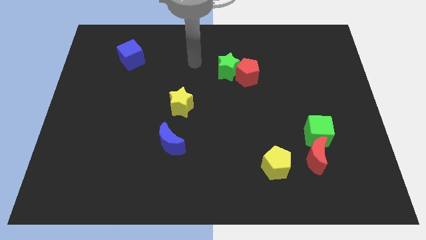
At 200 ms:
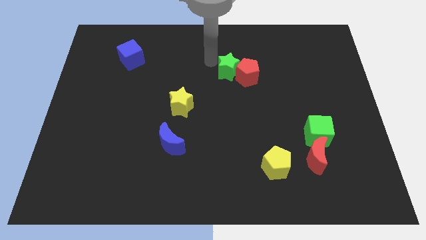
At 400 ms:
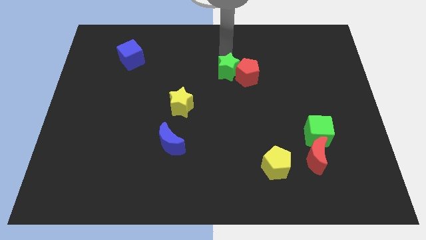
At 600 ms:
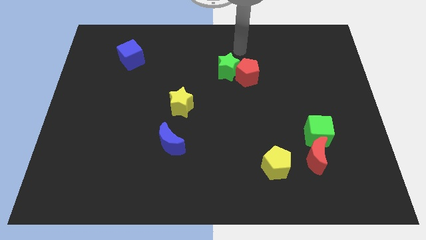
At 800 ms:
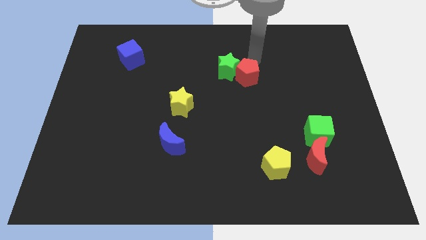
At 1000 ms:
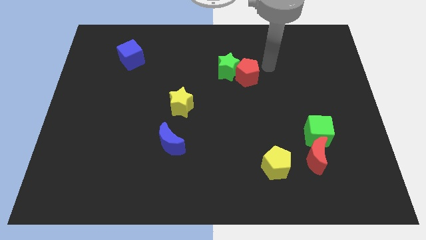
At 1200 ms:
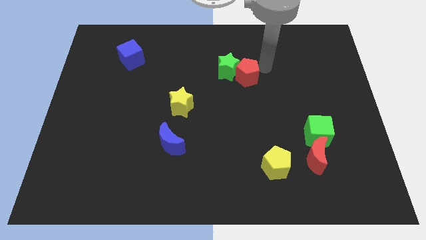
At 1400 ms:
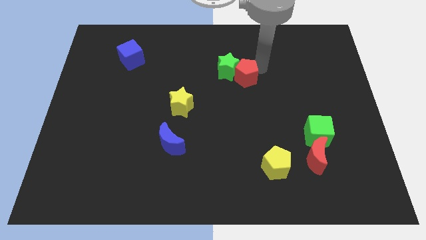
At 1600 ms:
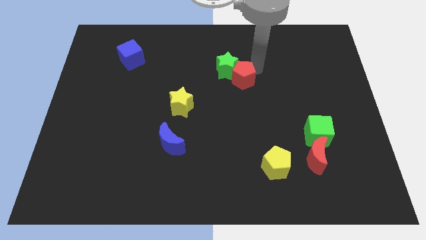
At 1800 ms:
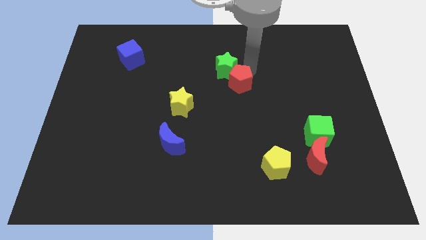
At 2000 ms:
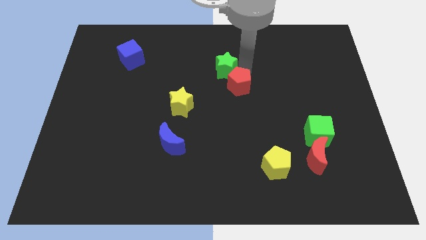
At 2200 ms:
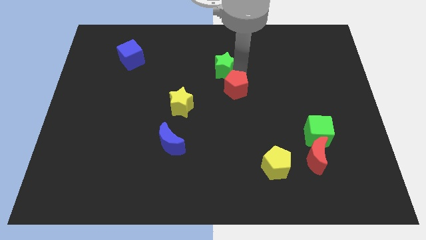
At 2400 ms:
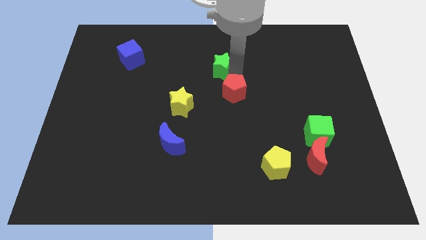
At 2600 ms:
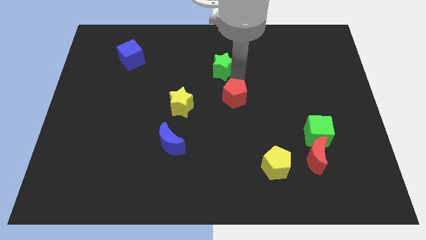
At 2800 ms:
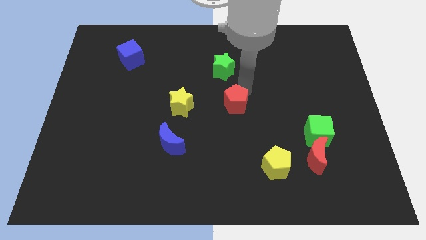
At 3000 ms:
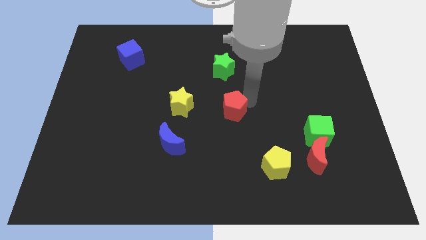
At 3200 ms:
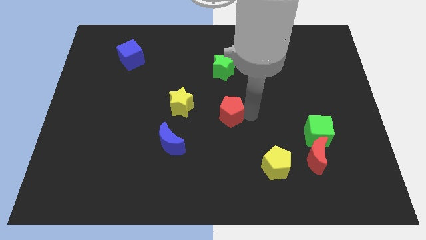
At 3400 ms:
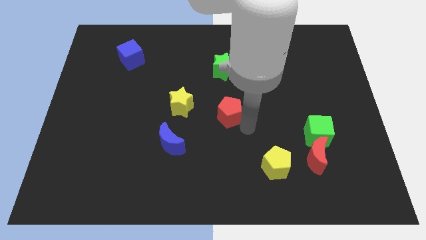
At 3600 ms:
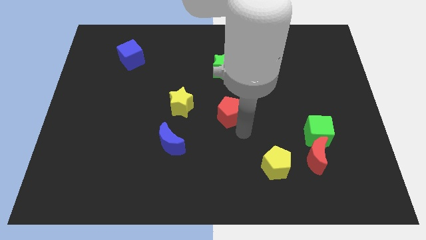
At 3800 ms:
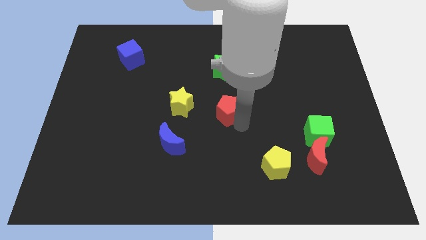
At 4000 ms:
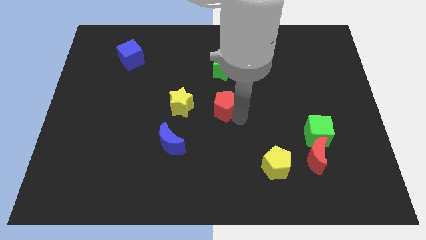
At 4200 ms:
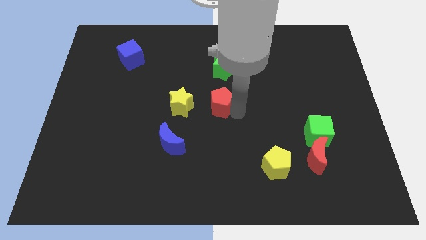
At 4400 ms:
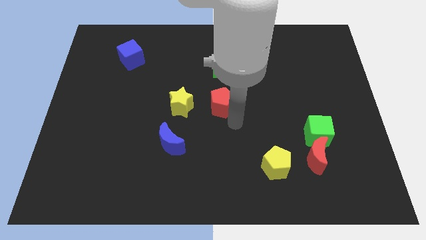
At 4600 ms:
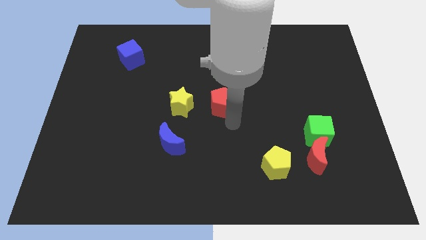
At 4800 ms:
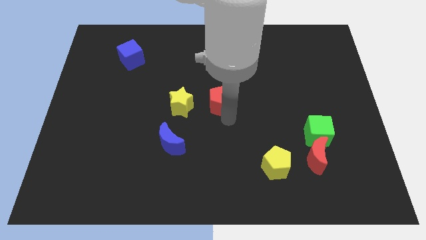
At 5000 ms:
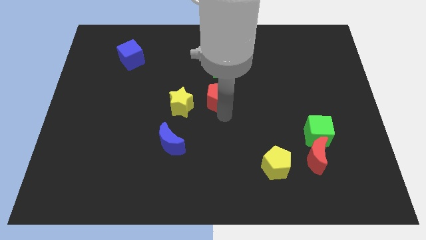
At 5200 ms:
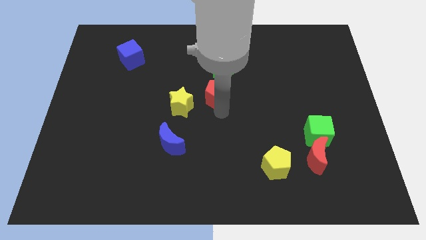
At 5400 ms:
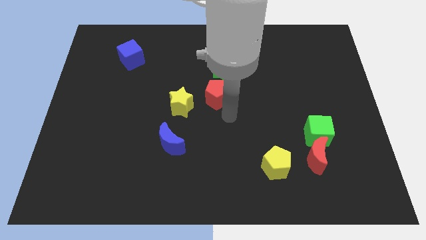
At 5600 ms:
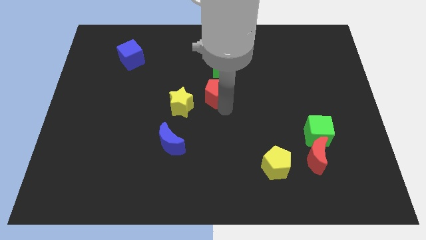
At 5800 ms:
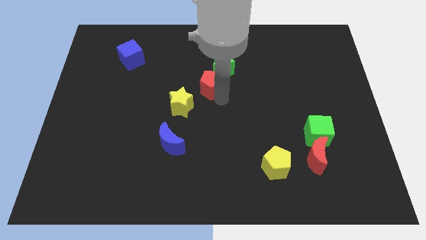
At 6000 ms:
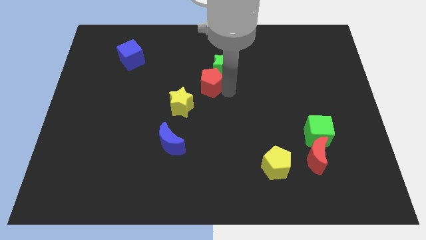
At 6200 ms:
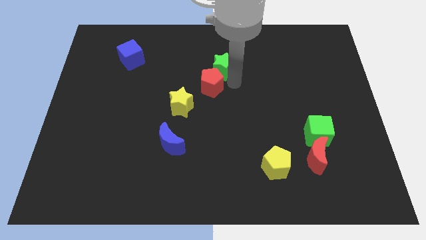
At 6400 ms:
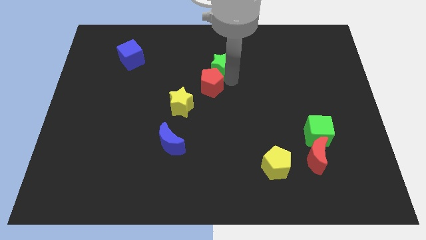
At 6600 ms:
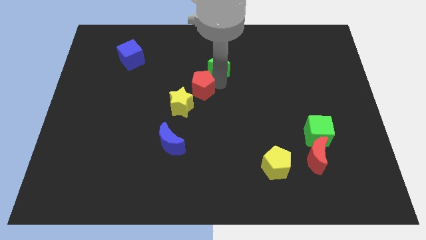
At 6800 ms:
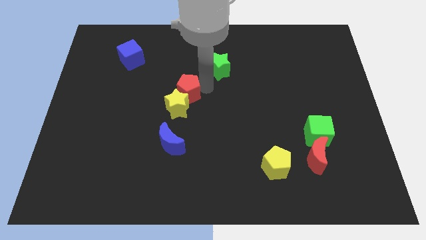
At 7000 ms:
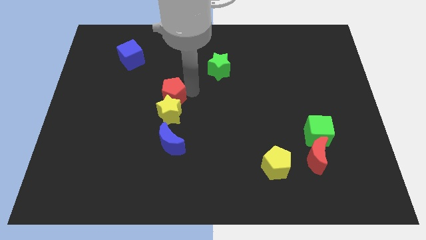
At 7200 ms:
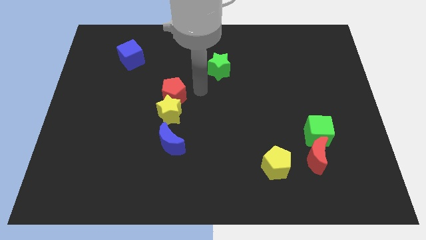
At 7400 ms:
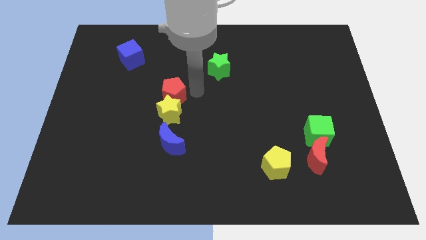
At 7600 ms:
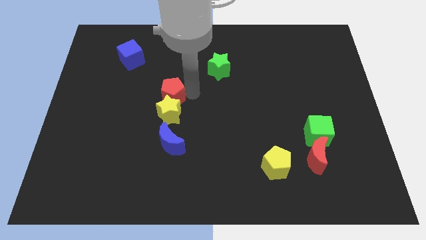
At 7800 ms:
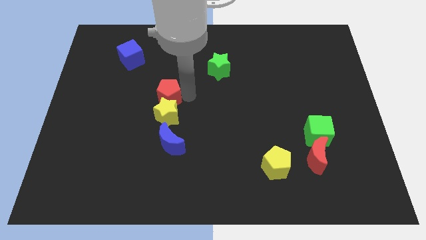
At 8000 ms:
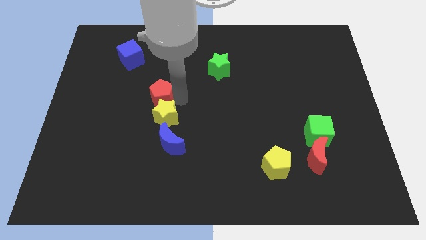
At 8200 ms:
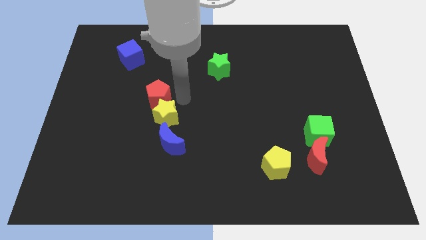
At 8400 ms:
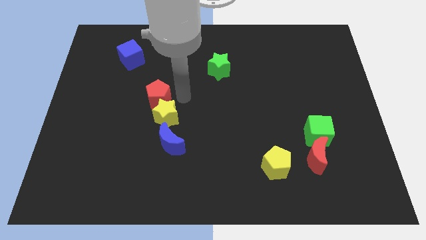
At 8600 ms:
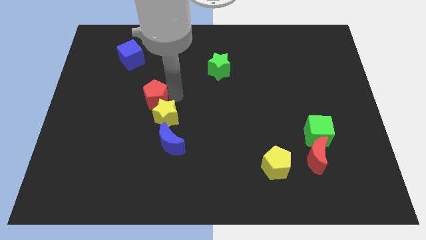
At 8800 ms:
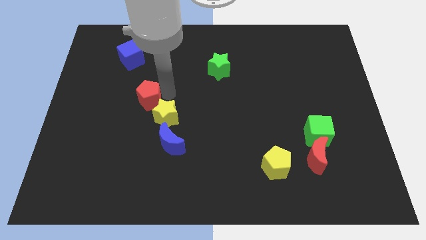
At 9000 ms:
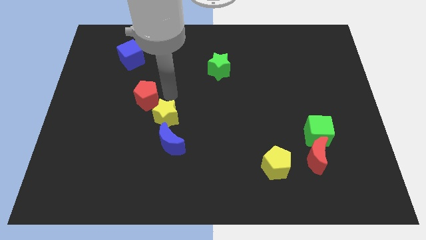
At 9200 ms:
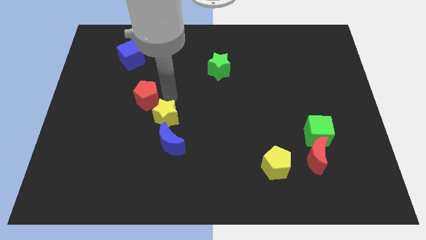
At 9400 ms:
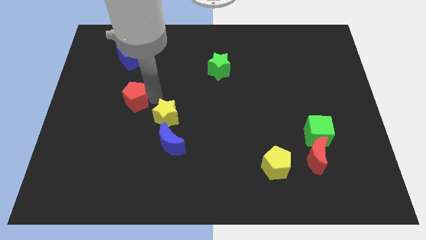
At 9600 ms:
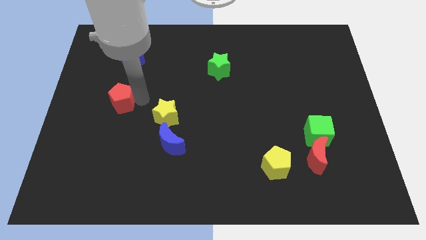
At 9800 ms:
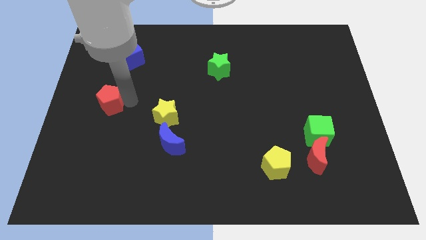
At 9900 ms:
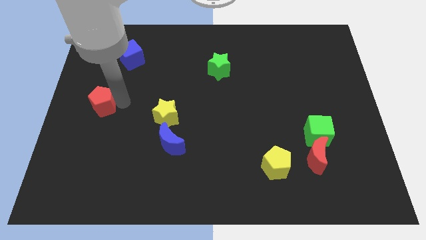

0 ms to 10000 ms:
move the red pentagon to the left side

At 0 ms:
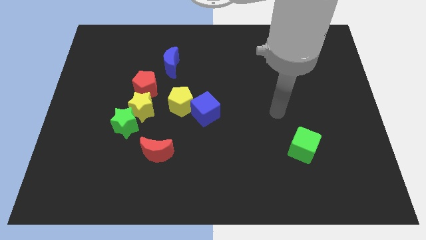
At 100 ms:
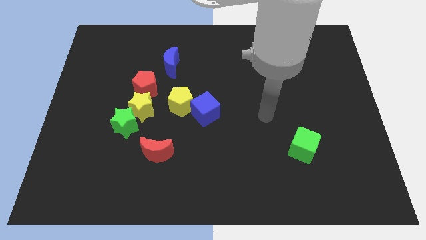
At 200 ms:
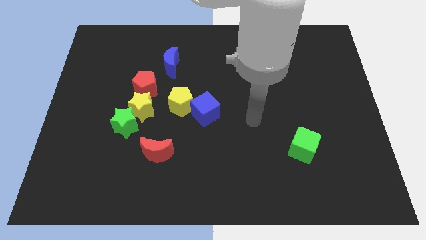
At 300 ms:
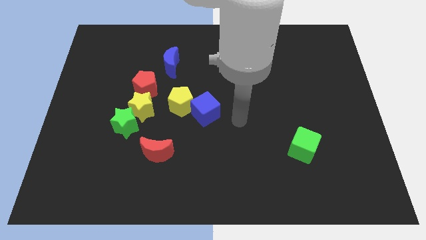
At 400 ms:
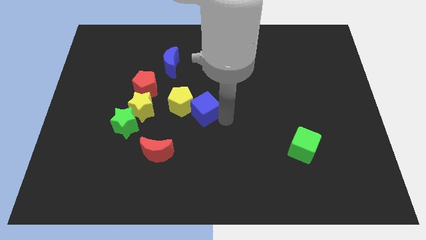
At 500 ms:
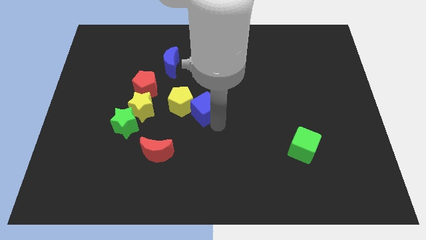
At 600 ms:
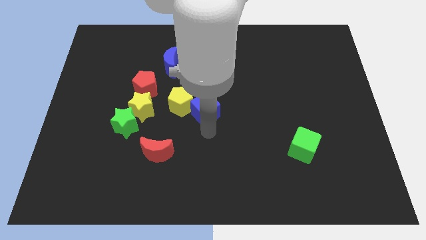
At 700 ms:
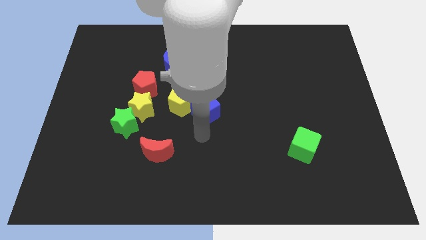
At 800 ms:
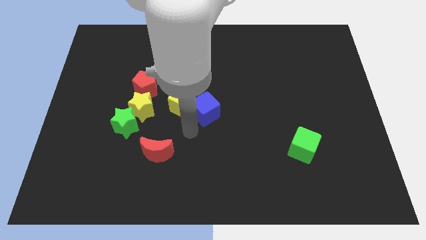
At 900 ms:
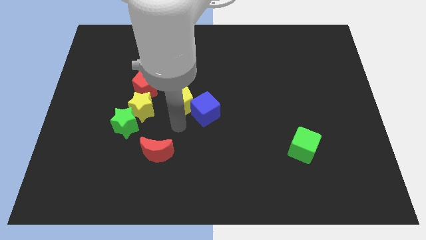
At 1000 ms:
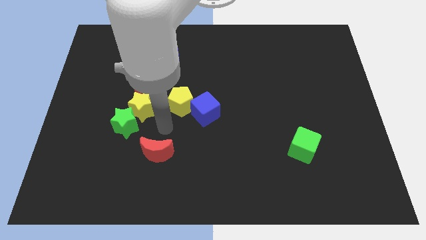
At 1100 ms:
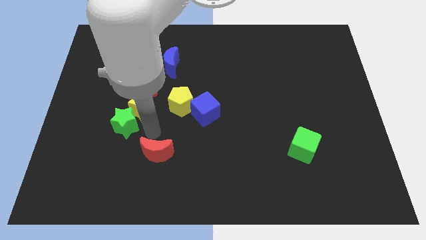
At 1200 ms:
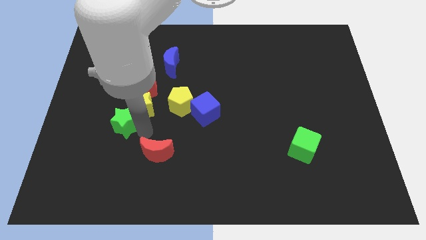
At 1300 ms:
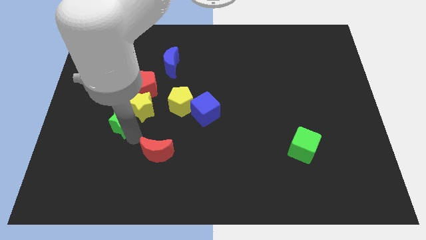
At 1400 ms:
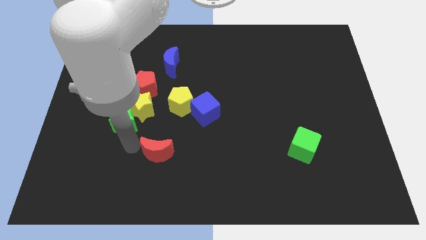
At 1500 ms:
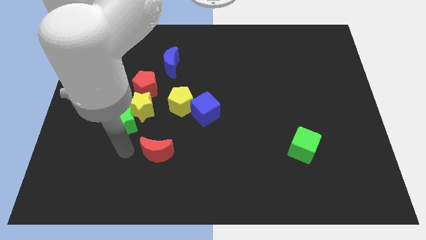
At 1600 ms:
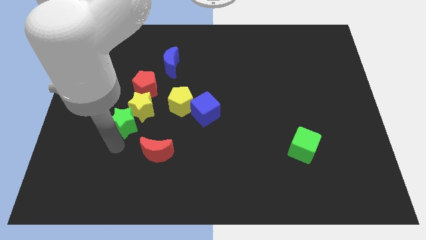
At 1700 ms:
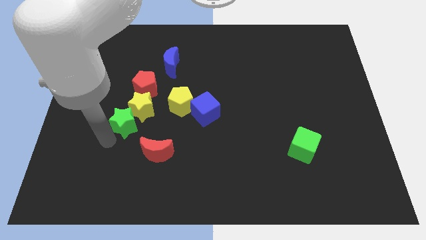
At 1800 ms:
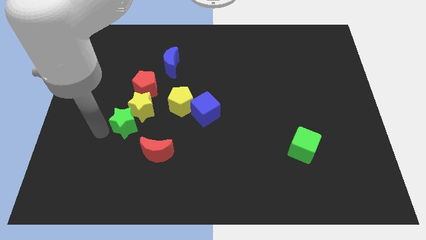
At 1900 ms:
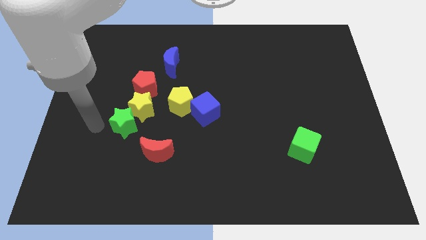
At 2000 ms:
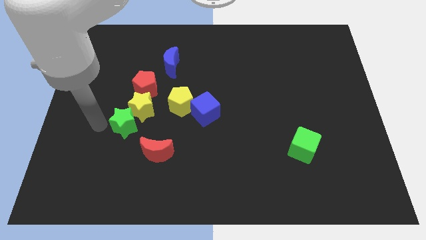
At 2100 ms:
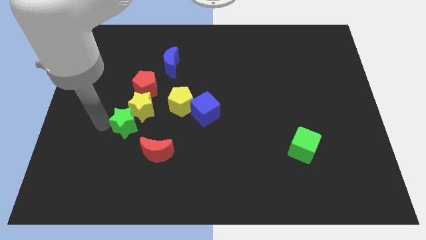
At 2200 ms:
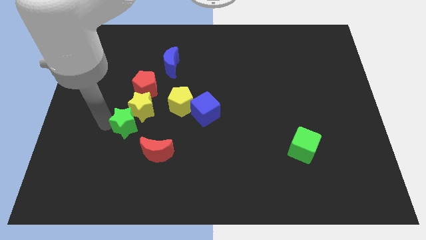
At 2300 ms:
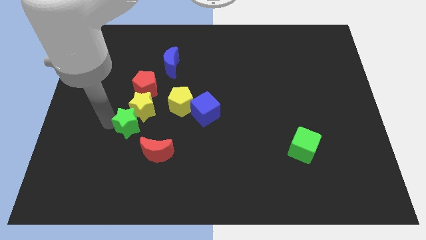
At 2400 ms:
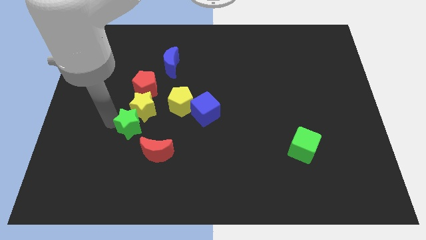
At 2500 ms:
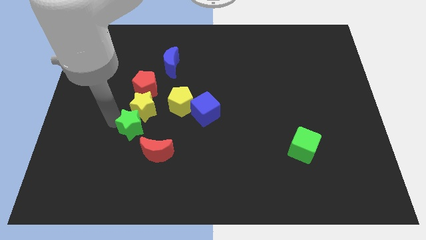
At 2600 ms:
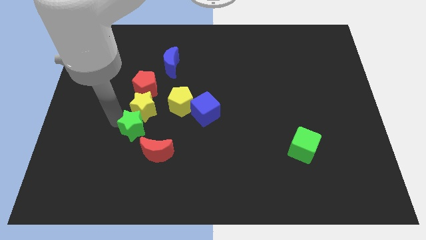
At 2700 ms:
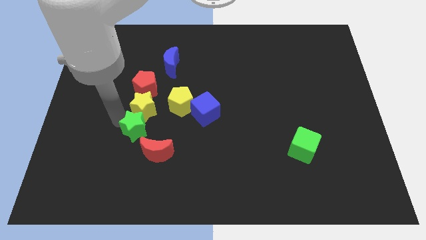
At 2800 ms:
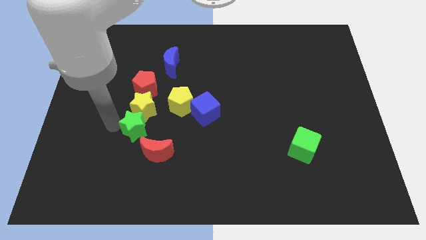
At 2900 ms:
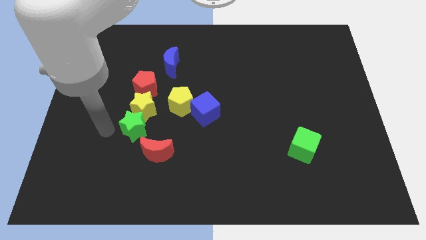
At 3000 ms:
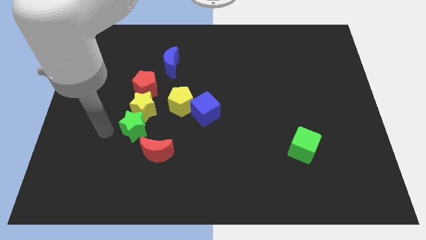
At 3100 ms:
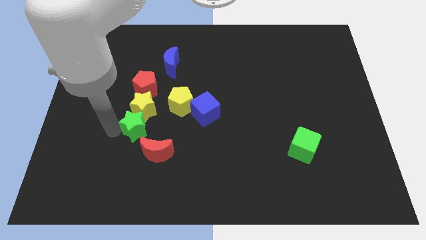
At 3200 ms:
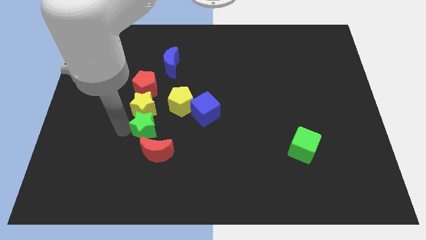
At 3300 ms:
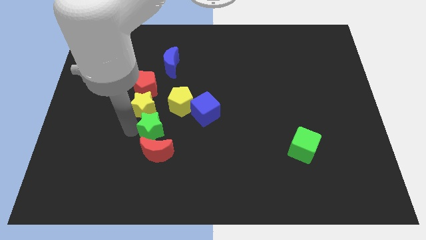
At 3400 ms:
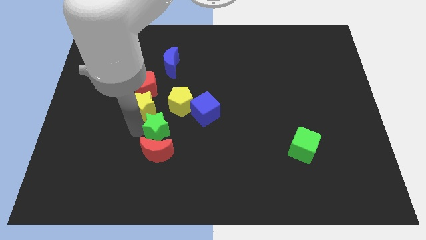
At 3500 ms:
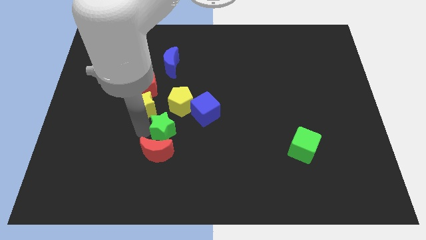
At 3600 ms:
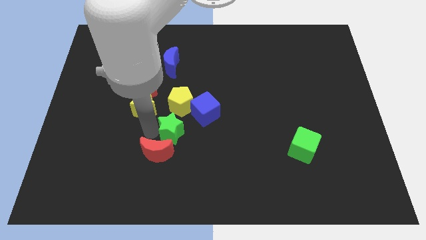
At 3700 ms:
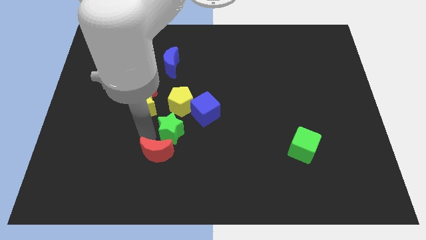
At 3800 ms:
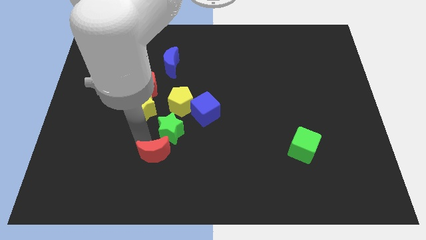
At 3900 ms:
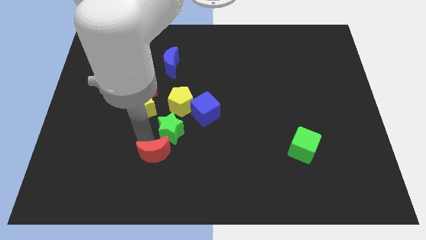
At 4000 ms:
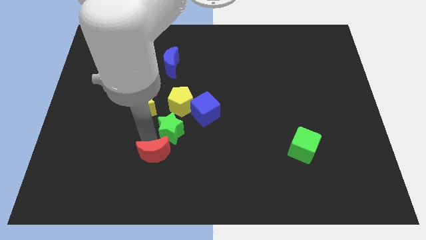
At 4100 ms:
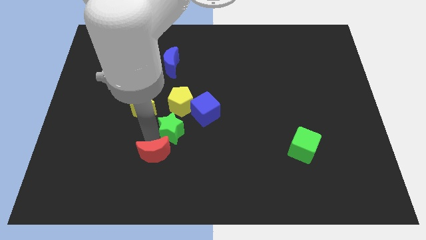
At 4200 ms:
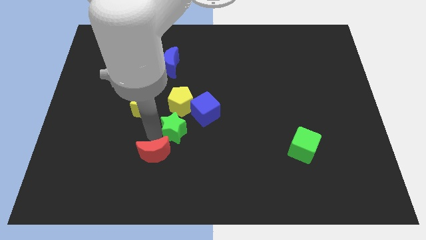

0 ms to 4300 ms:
put the green star to the middle
